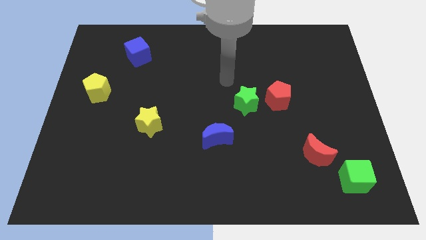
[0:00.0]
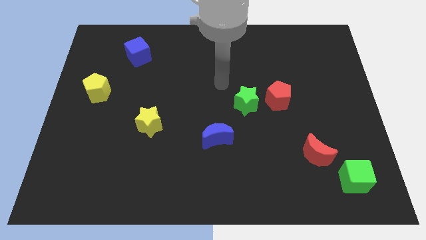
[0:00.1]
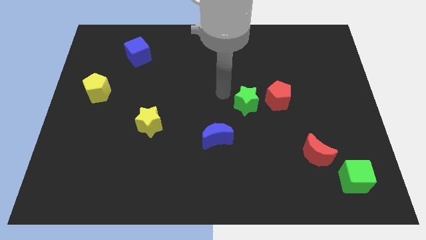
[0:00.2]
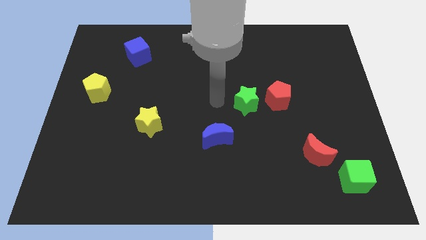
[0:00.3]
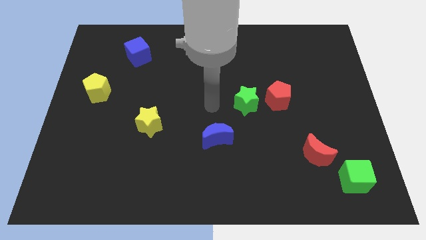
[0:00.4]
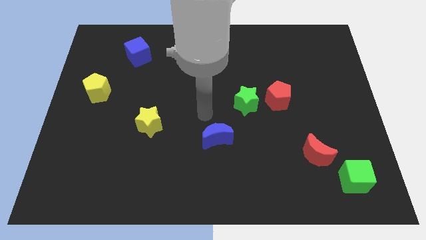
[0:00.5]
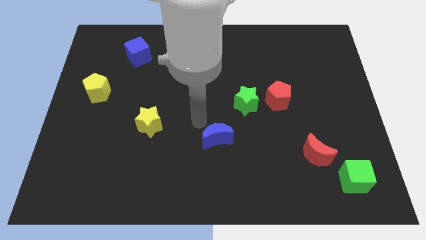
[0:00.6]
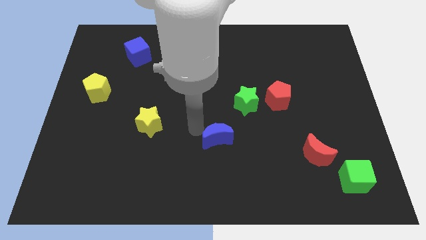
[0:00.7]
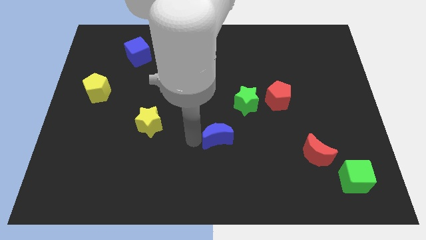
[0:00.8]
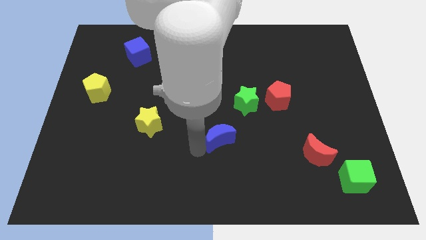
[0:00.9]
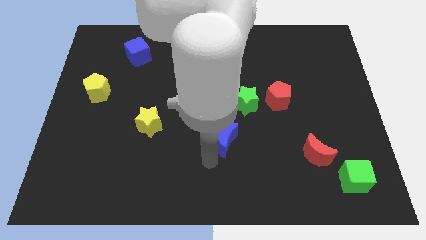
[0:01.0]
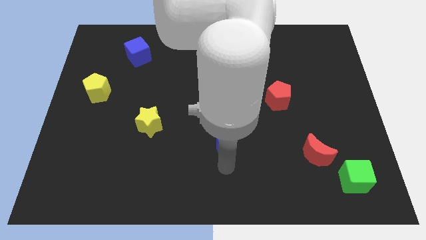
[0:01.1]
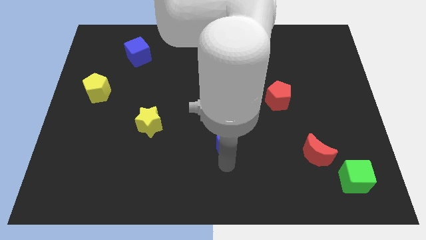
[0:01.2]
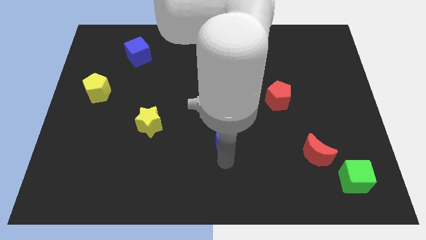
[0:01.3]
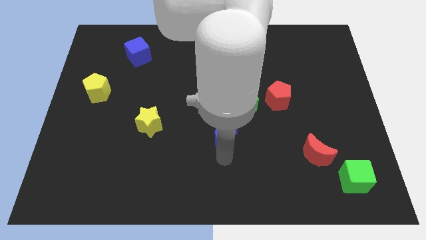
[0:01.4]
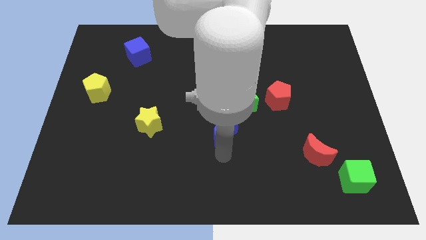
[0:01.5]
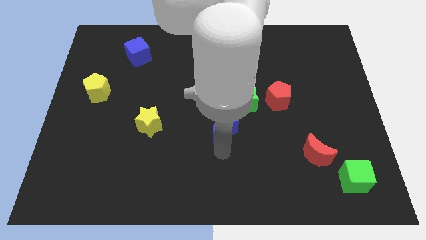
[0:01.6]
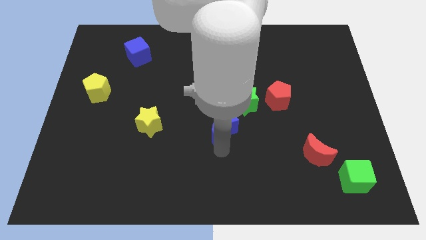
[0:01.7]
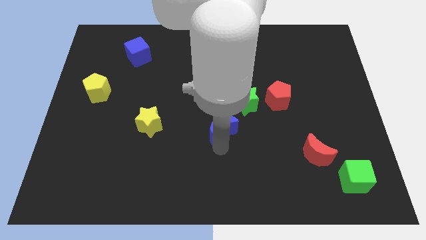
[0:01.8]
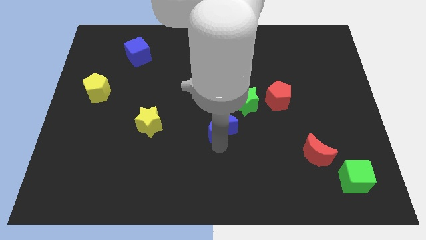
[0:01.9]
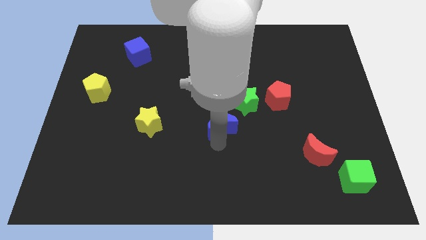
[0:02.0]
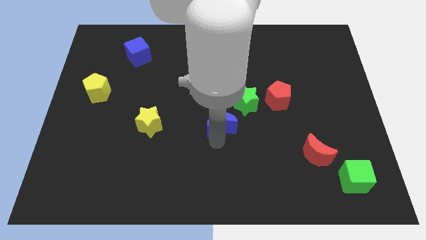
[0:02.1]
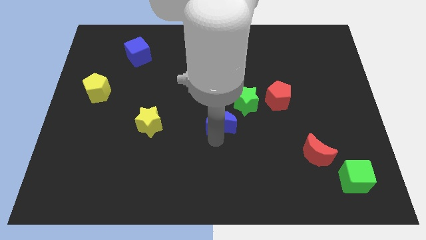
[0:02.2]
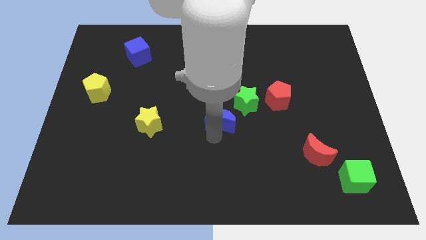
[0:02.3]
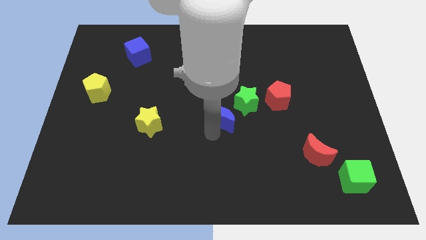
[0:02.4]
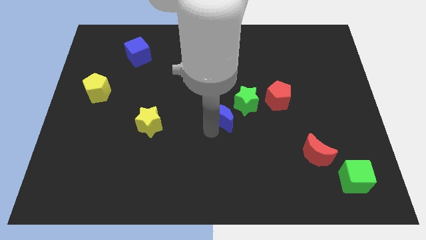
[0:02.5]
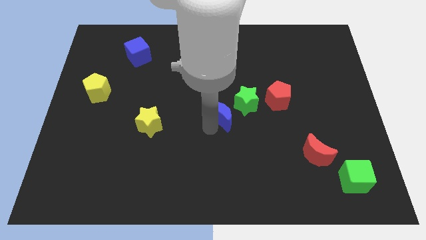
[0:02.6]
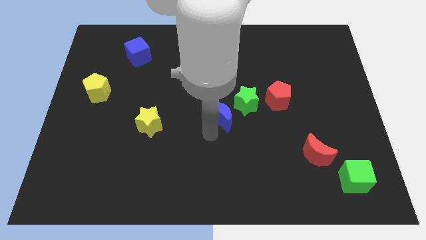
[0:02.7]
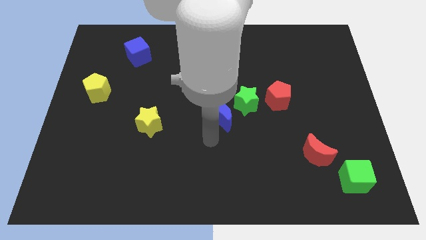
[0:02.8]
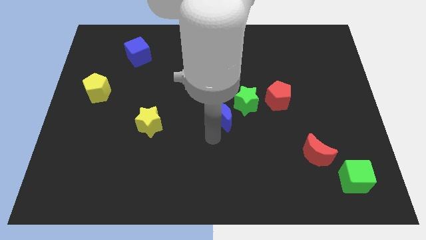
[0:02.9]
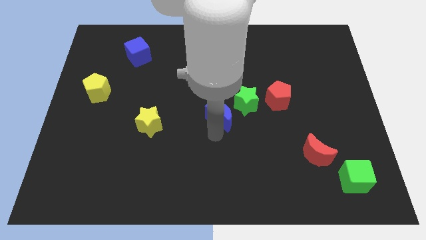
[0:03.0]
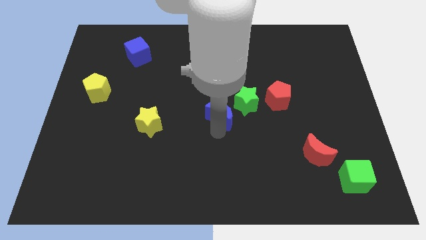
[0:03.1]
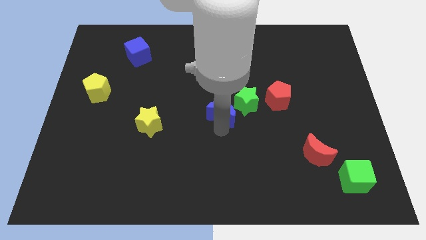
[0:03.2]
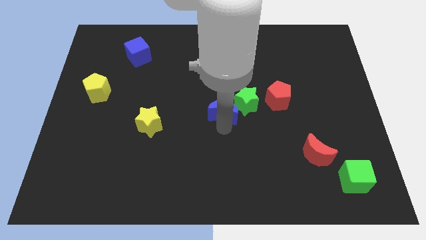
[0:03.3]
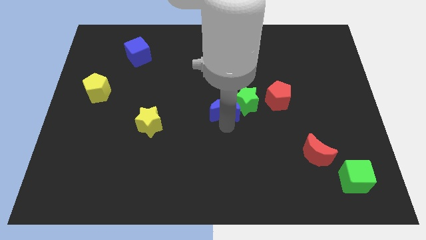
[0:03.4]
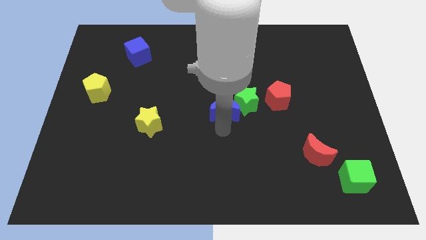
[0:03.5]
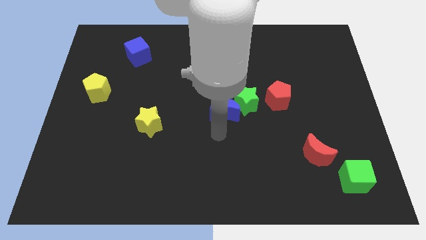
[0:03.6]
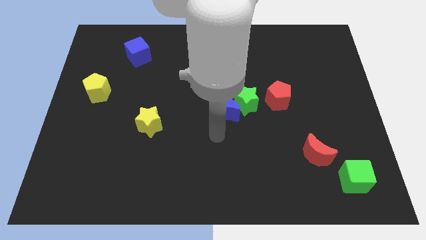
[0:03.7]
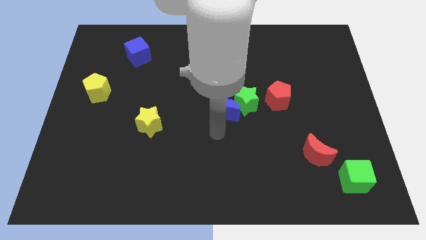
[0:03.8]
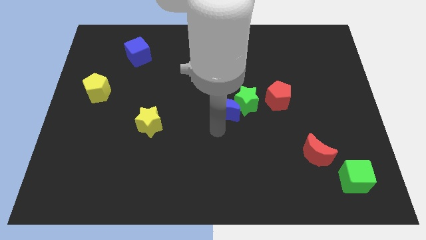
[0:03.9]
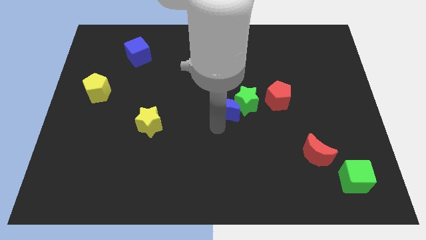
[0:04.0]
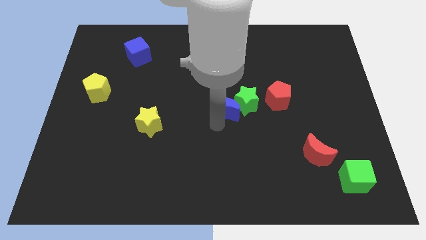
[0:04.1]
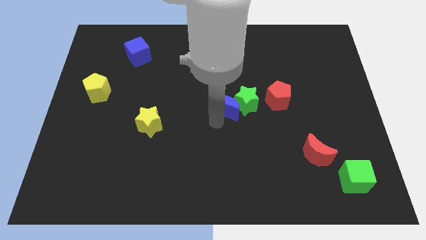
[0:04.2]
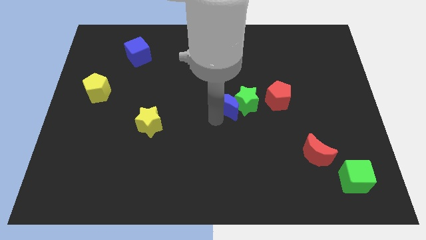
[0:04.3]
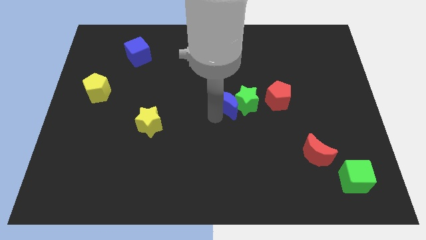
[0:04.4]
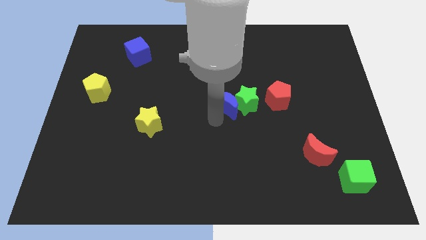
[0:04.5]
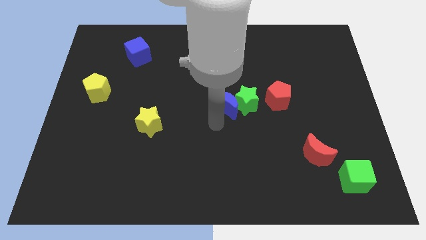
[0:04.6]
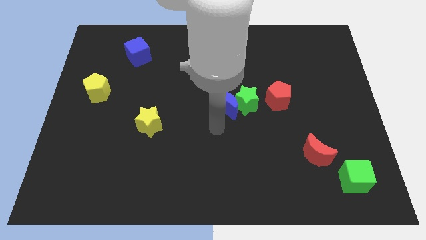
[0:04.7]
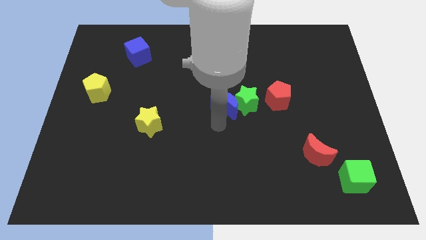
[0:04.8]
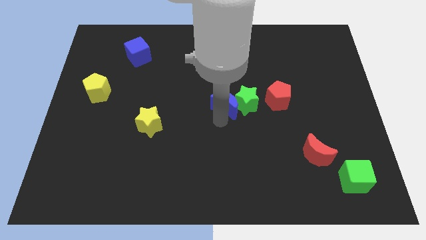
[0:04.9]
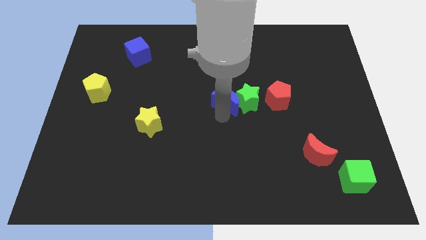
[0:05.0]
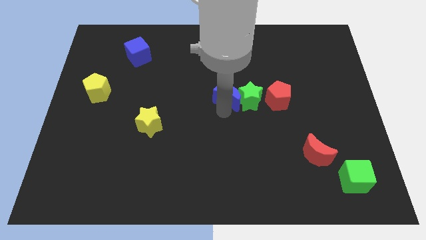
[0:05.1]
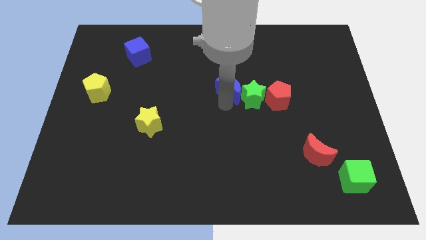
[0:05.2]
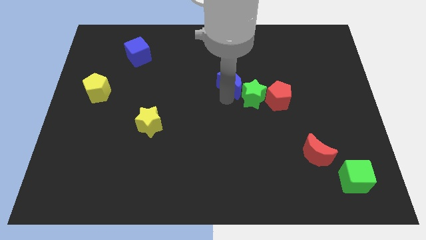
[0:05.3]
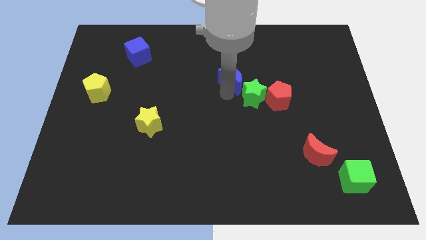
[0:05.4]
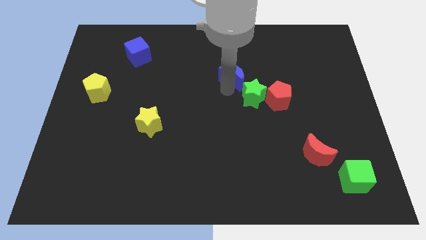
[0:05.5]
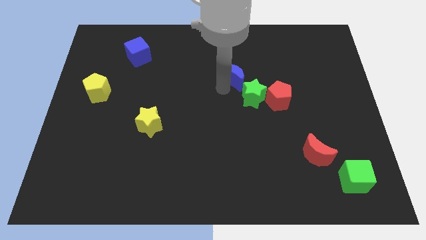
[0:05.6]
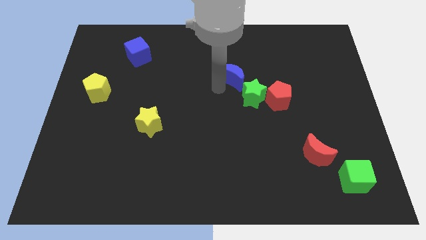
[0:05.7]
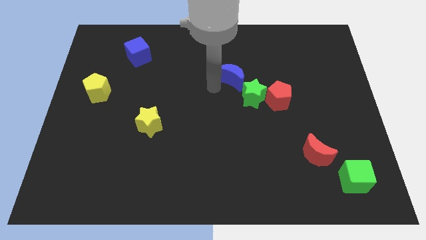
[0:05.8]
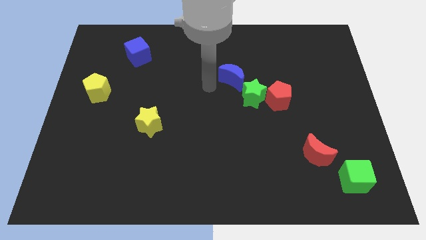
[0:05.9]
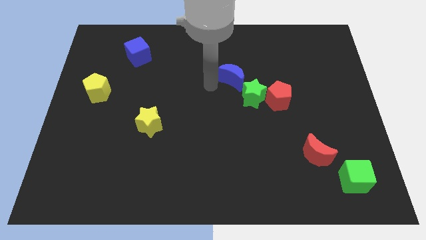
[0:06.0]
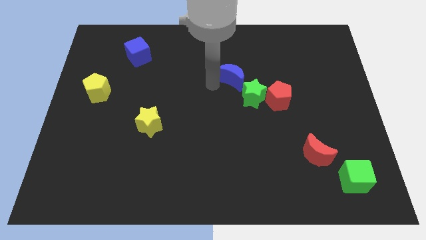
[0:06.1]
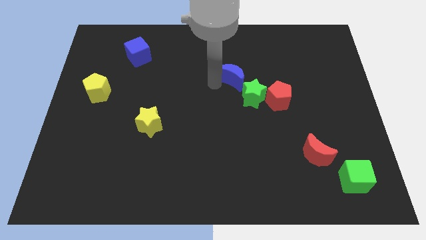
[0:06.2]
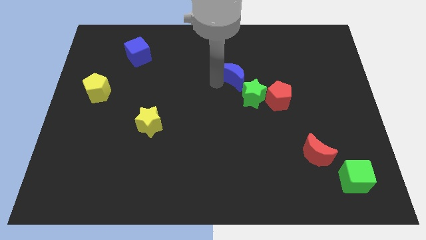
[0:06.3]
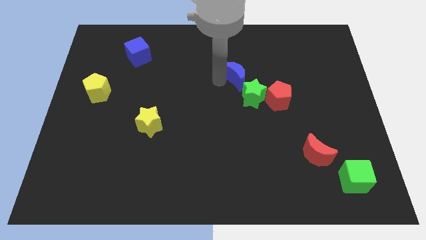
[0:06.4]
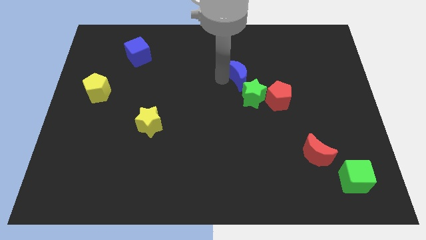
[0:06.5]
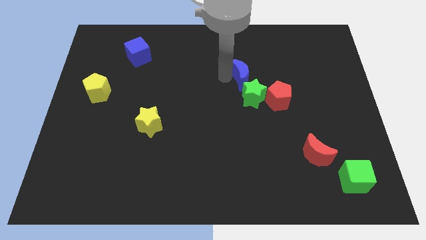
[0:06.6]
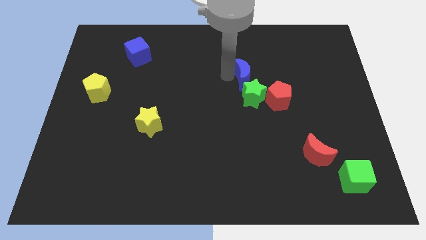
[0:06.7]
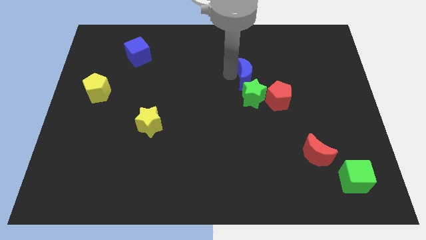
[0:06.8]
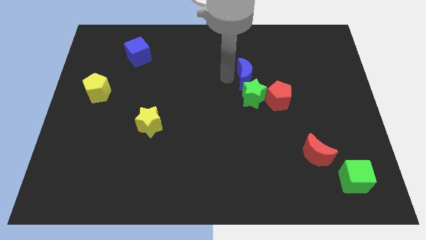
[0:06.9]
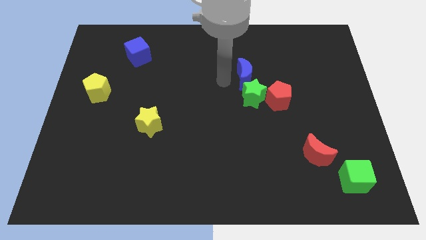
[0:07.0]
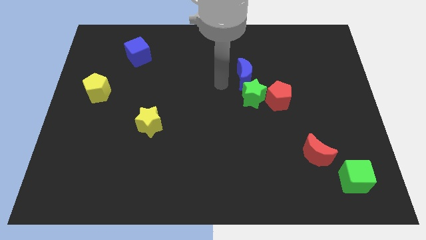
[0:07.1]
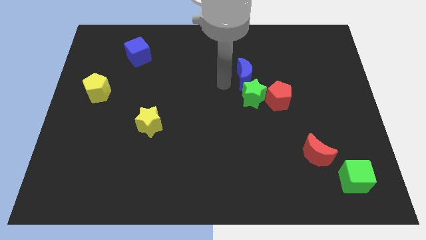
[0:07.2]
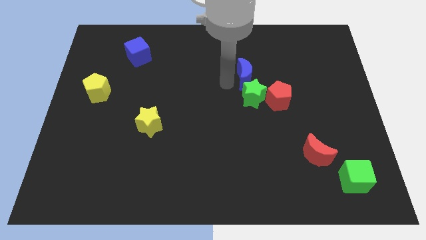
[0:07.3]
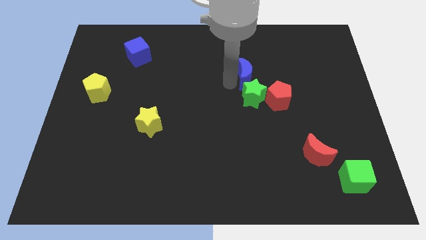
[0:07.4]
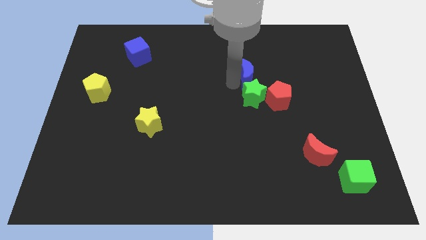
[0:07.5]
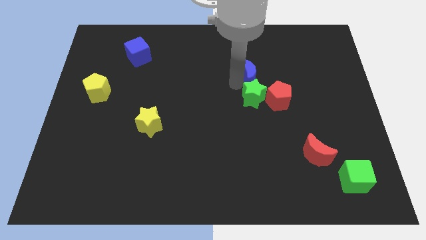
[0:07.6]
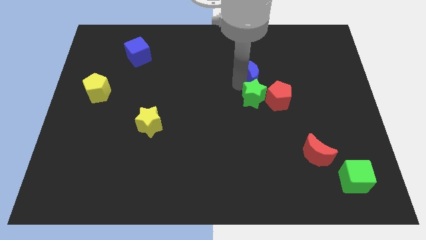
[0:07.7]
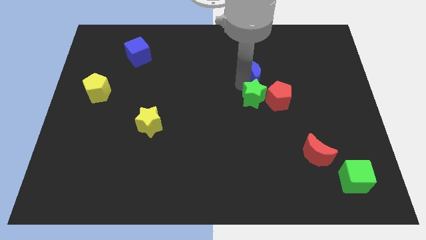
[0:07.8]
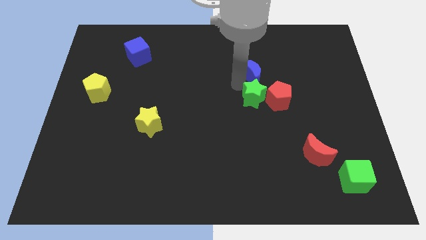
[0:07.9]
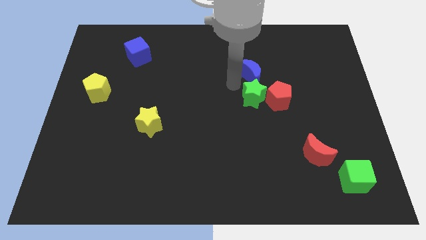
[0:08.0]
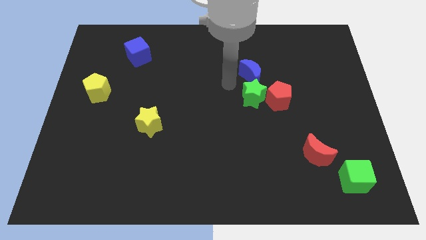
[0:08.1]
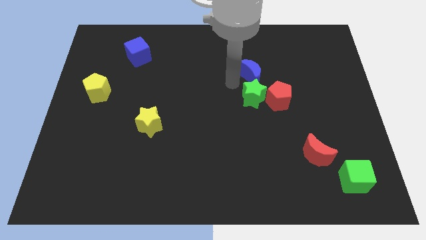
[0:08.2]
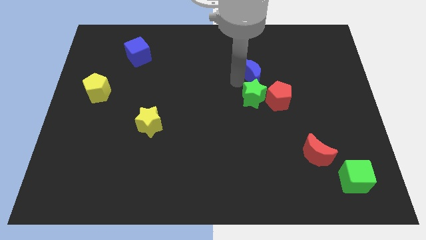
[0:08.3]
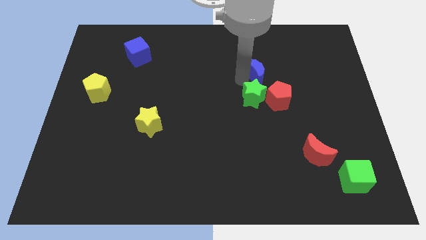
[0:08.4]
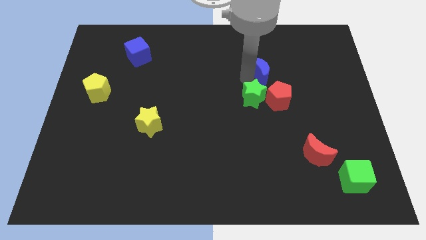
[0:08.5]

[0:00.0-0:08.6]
move the blue moon upwards and right
